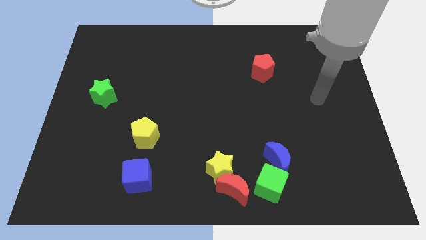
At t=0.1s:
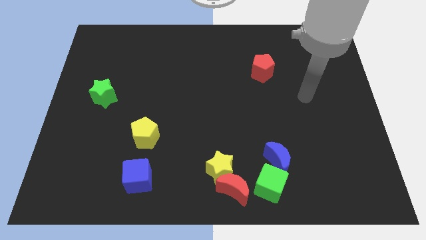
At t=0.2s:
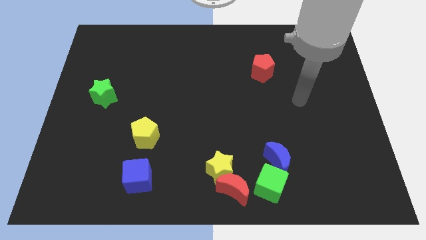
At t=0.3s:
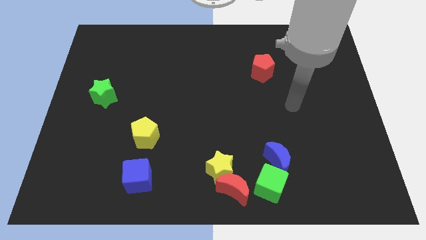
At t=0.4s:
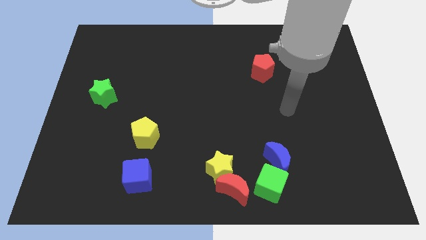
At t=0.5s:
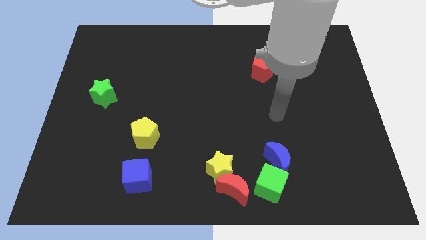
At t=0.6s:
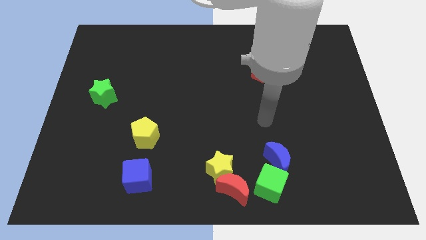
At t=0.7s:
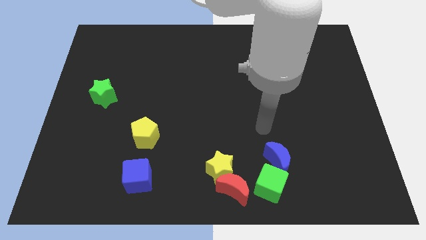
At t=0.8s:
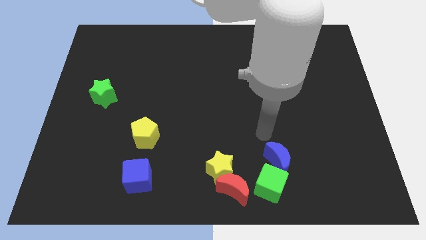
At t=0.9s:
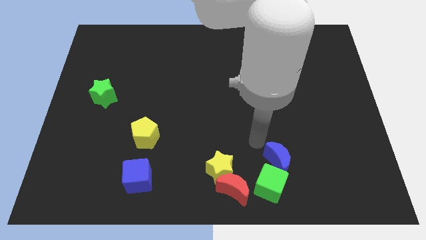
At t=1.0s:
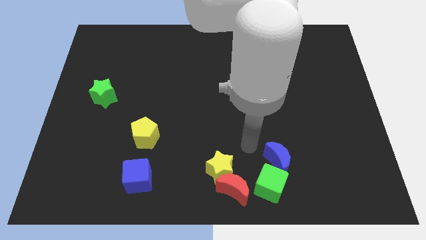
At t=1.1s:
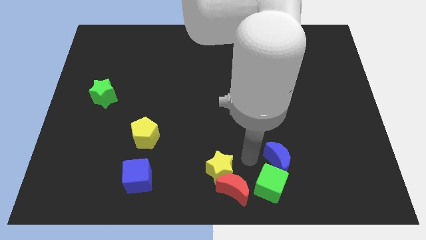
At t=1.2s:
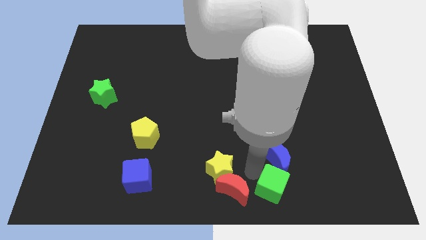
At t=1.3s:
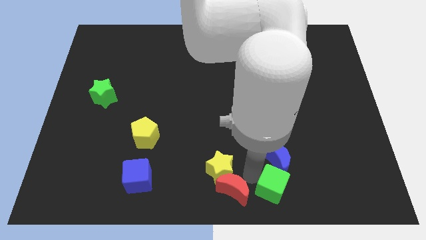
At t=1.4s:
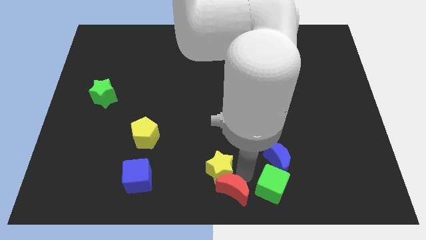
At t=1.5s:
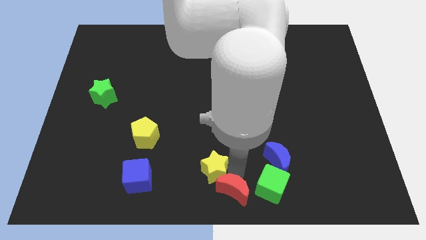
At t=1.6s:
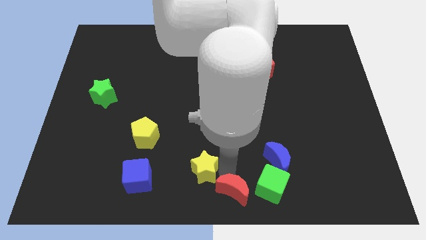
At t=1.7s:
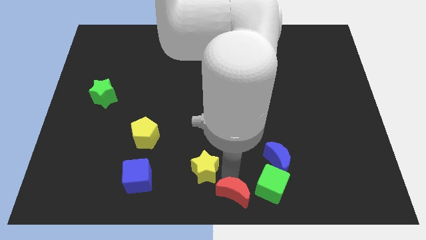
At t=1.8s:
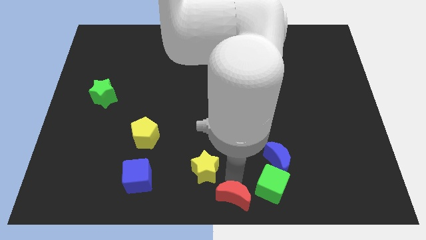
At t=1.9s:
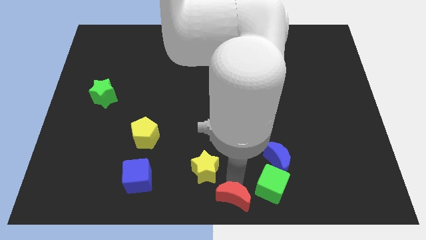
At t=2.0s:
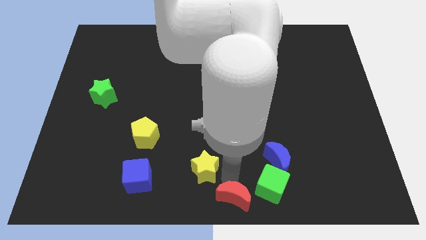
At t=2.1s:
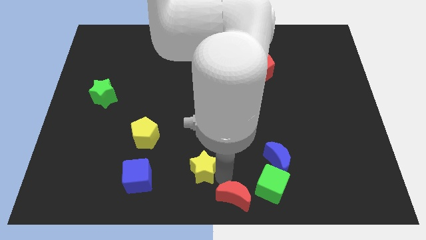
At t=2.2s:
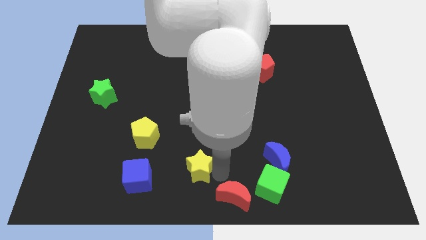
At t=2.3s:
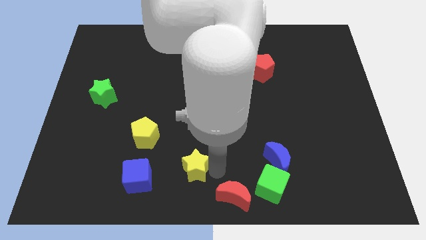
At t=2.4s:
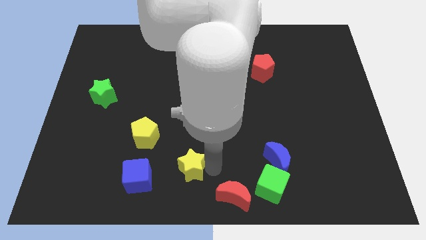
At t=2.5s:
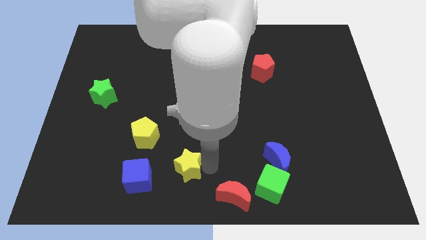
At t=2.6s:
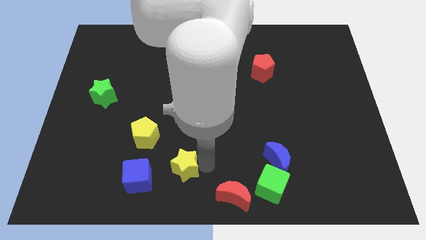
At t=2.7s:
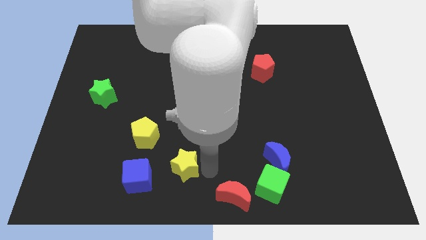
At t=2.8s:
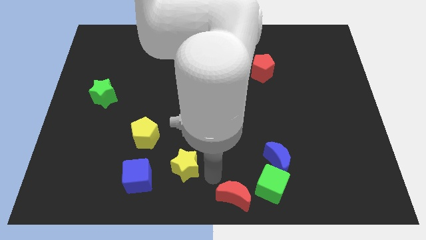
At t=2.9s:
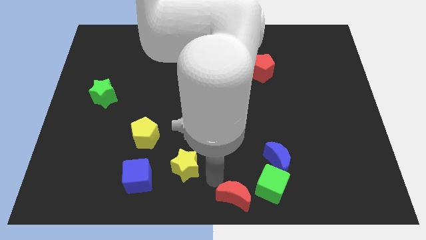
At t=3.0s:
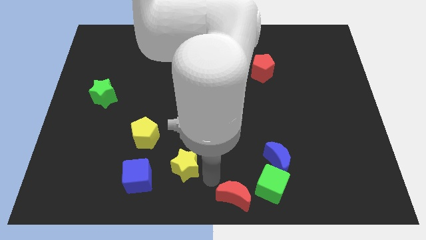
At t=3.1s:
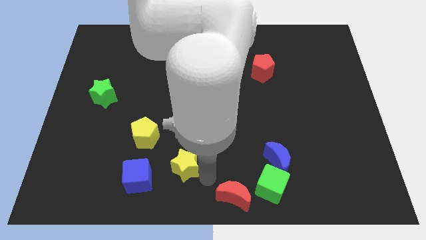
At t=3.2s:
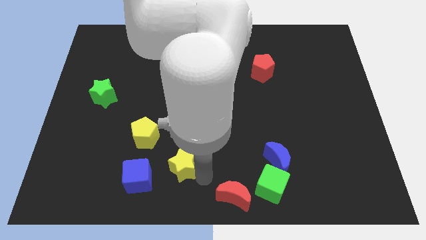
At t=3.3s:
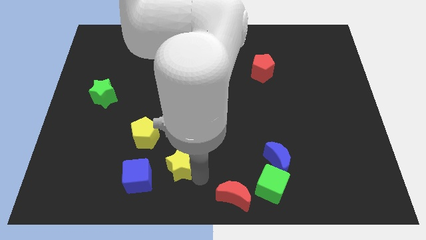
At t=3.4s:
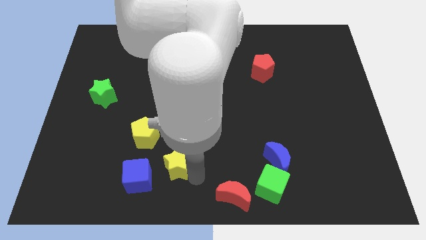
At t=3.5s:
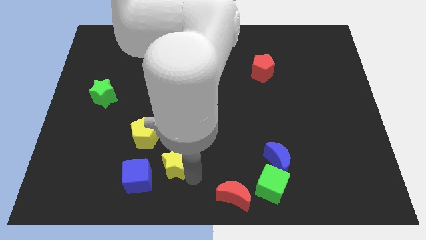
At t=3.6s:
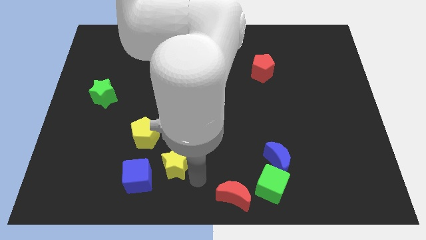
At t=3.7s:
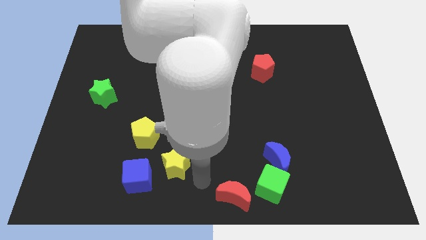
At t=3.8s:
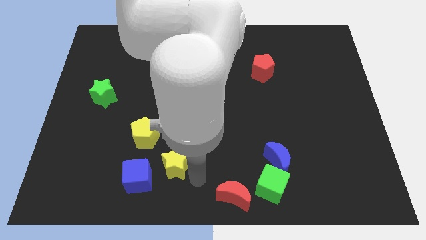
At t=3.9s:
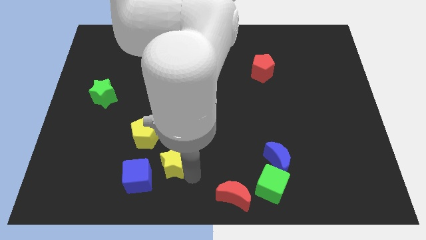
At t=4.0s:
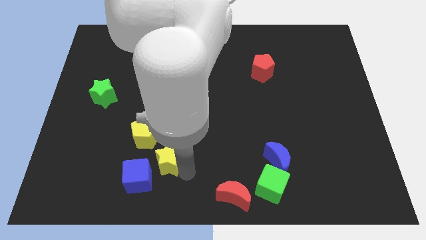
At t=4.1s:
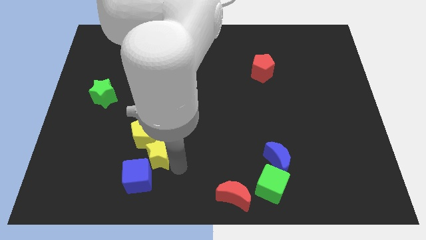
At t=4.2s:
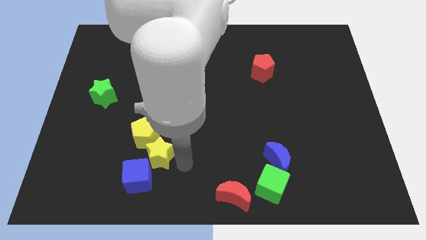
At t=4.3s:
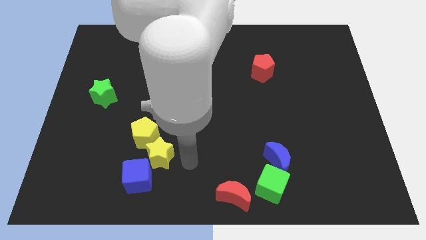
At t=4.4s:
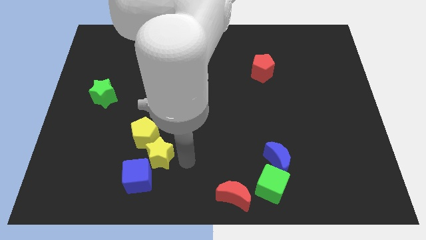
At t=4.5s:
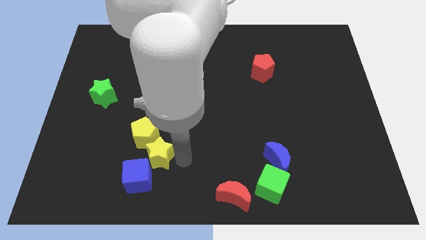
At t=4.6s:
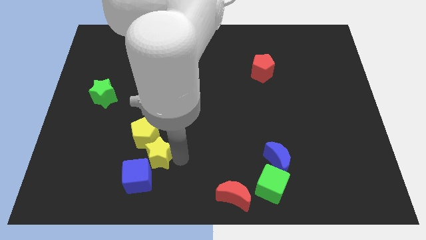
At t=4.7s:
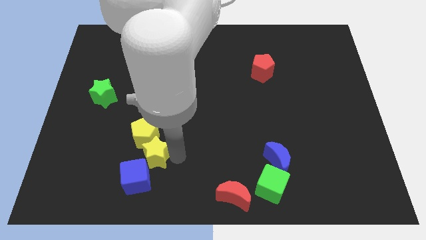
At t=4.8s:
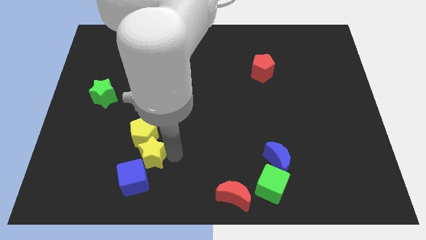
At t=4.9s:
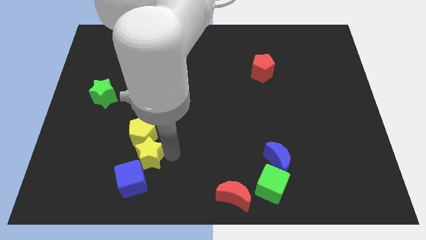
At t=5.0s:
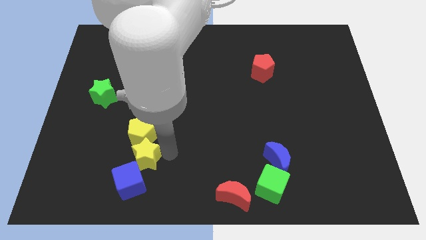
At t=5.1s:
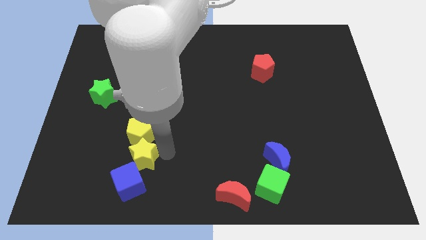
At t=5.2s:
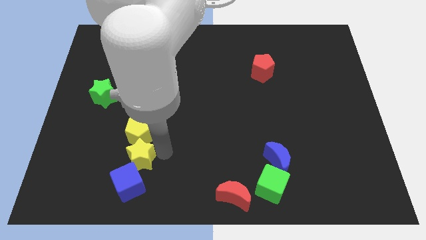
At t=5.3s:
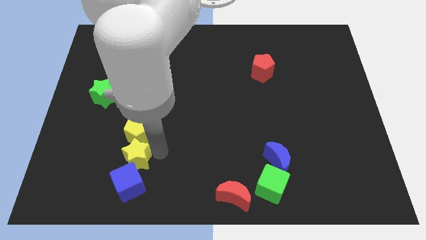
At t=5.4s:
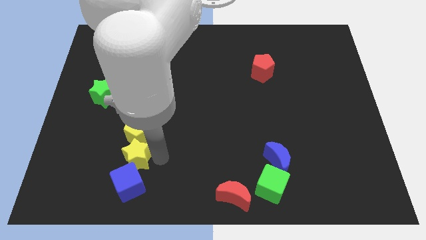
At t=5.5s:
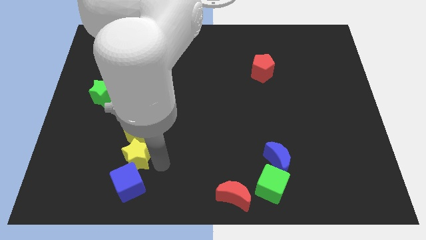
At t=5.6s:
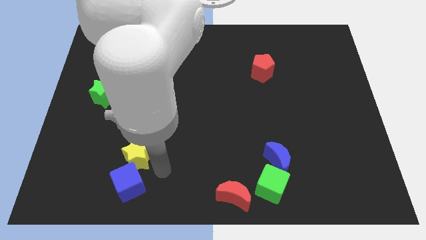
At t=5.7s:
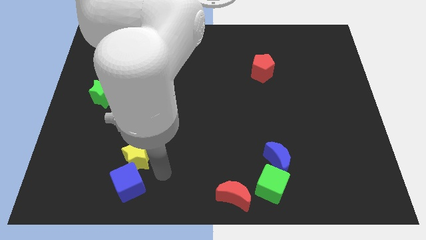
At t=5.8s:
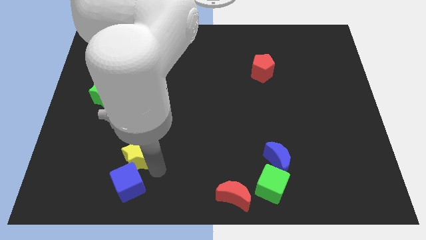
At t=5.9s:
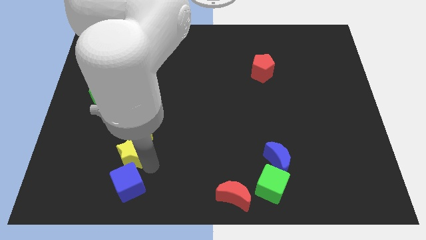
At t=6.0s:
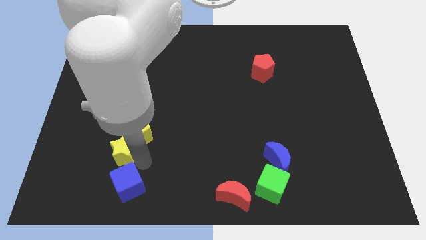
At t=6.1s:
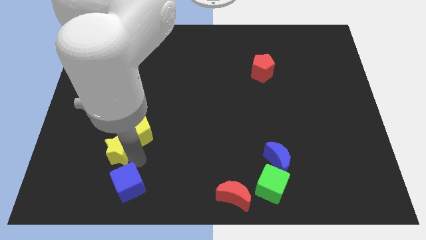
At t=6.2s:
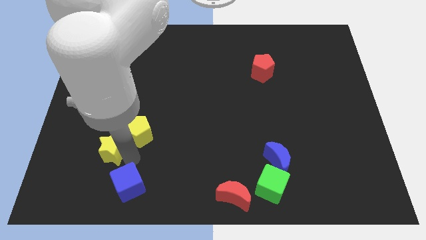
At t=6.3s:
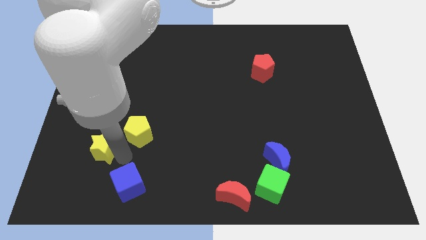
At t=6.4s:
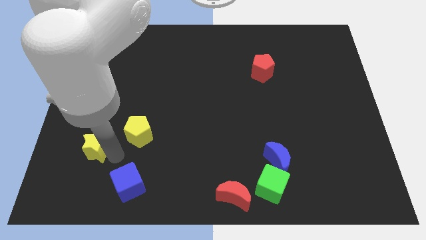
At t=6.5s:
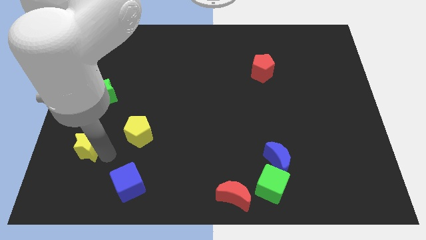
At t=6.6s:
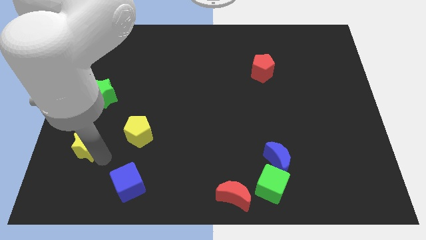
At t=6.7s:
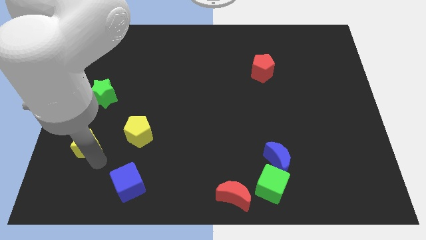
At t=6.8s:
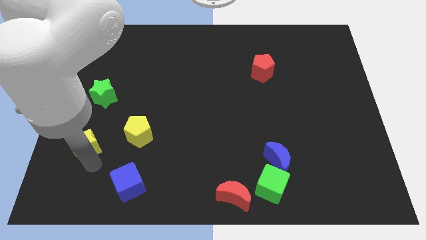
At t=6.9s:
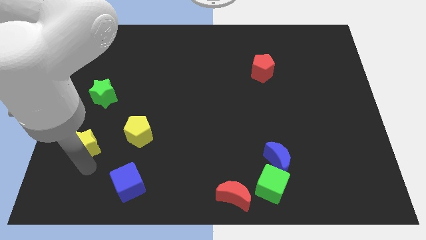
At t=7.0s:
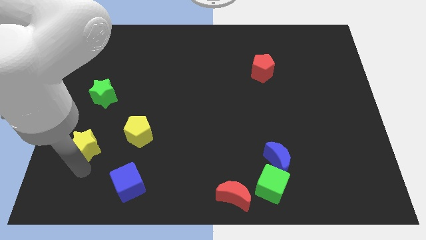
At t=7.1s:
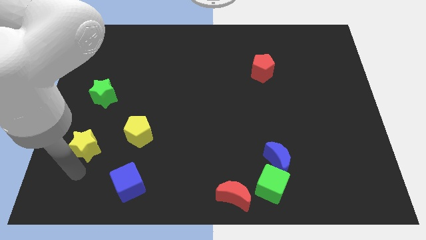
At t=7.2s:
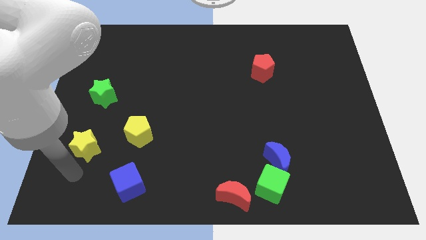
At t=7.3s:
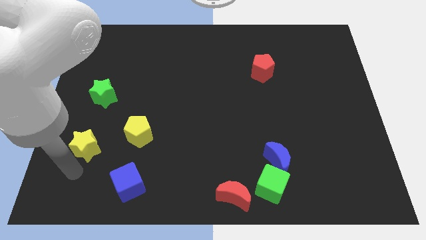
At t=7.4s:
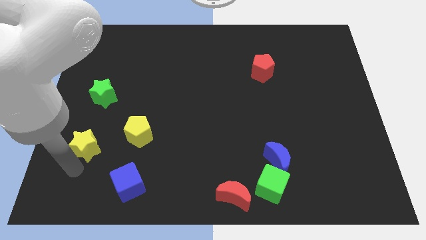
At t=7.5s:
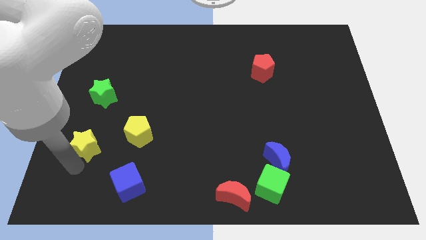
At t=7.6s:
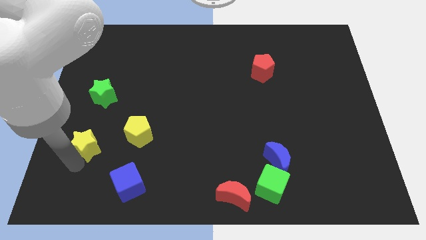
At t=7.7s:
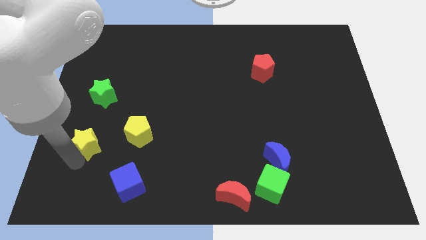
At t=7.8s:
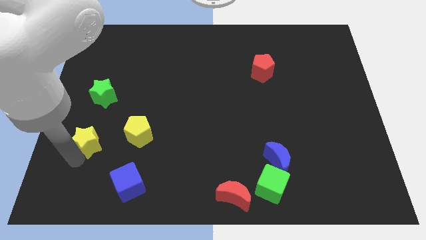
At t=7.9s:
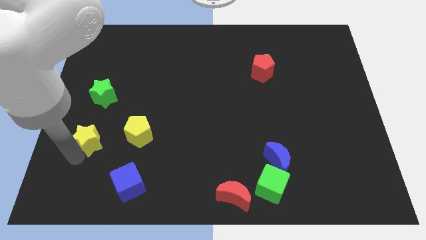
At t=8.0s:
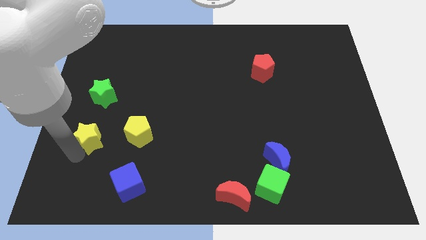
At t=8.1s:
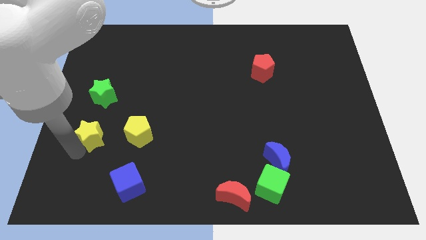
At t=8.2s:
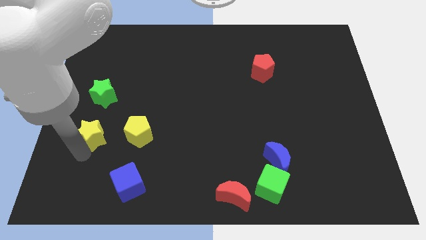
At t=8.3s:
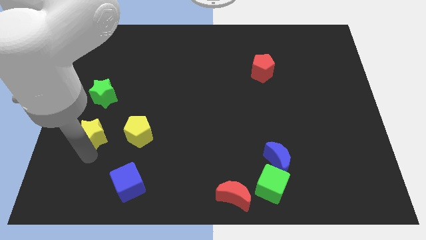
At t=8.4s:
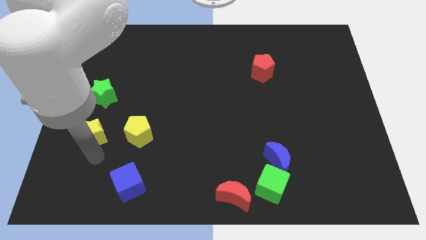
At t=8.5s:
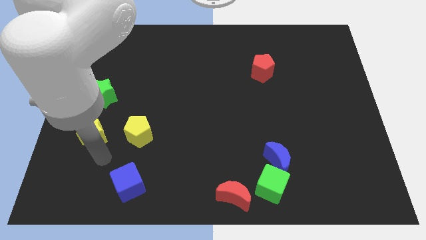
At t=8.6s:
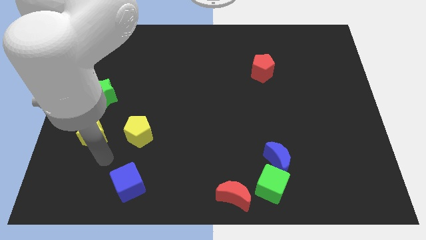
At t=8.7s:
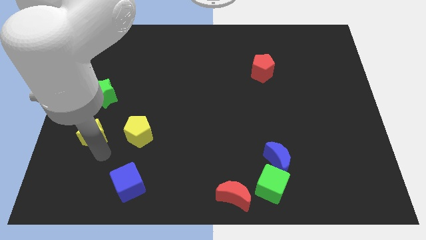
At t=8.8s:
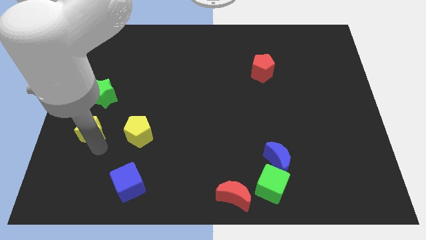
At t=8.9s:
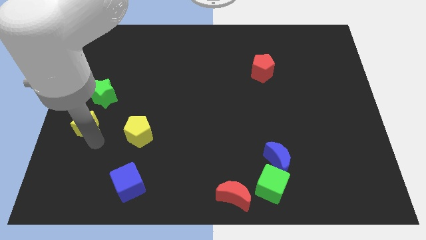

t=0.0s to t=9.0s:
slide the yellow star to the left side of the board
